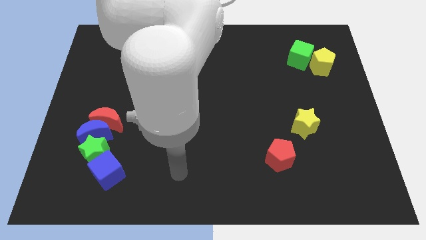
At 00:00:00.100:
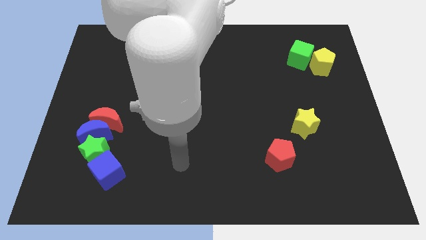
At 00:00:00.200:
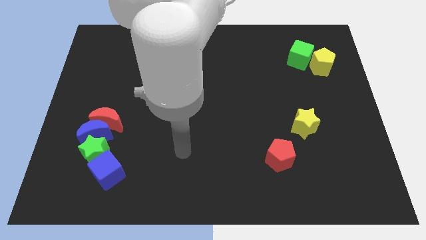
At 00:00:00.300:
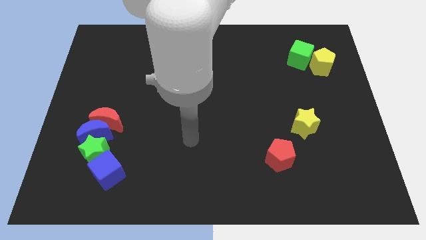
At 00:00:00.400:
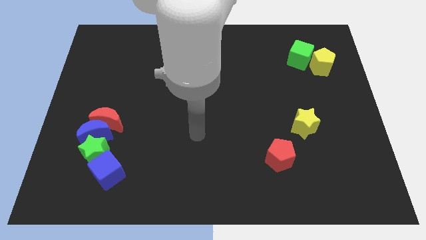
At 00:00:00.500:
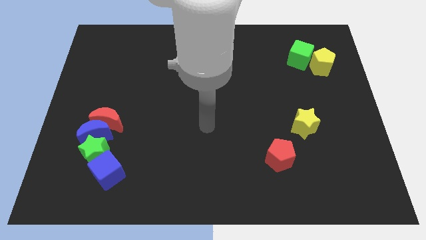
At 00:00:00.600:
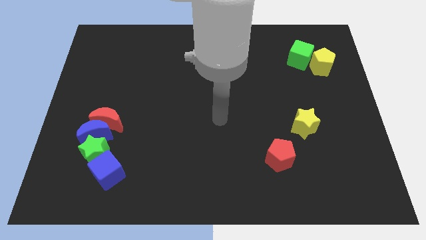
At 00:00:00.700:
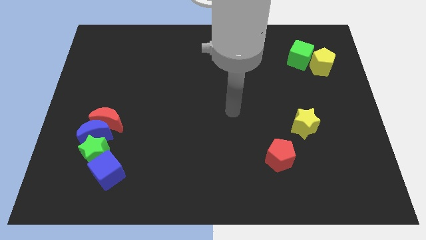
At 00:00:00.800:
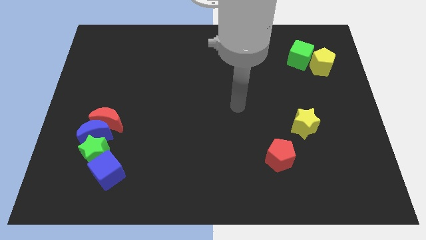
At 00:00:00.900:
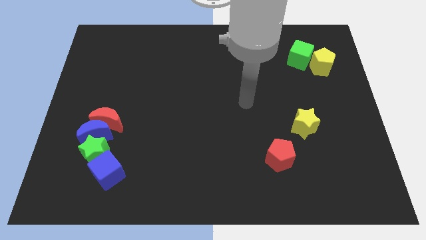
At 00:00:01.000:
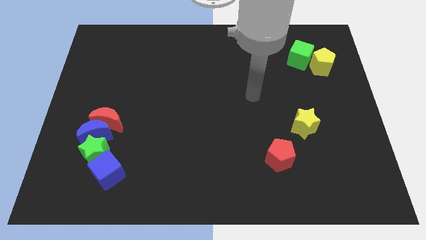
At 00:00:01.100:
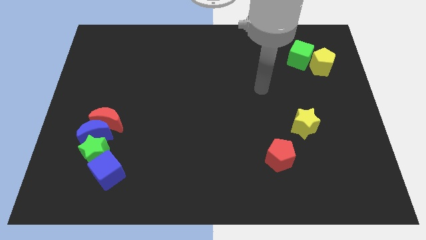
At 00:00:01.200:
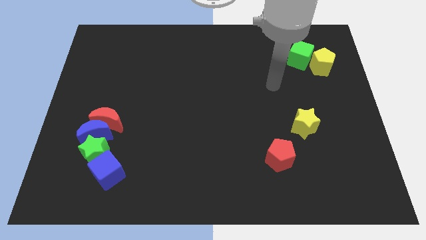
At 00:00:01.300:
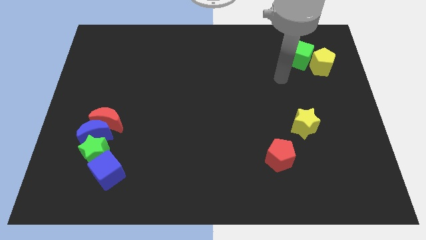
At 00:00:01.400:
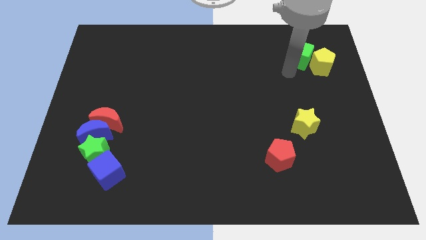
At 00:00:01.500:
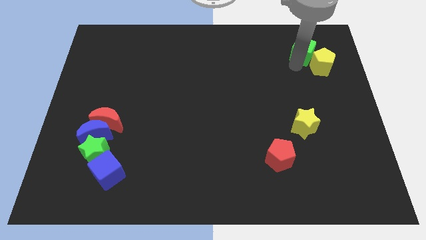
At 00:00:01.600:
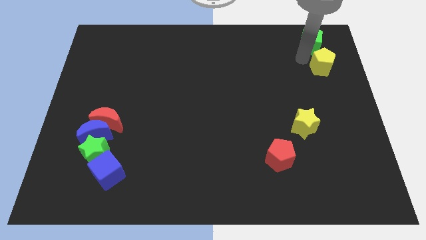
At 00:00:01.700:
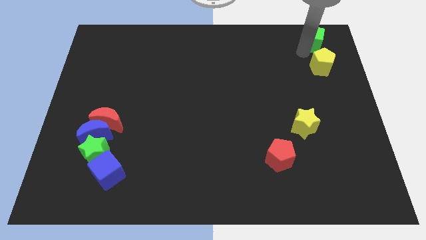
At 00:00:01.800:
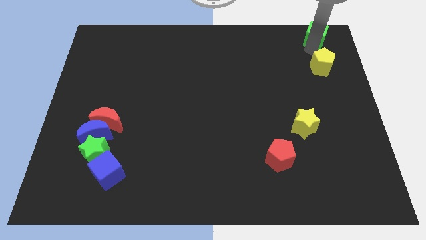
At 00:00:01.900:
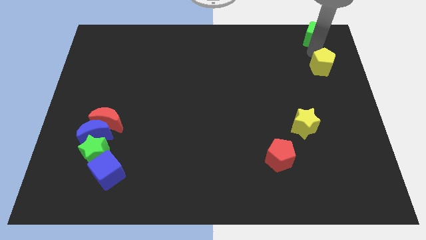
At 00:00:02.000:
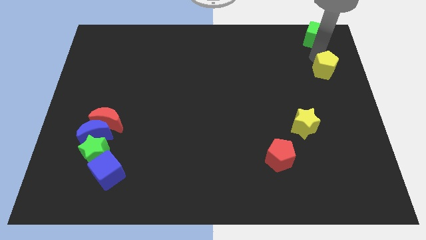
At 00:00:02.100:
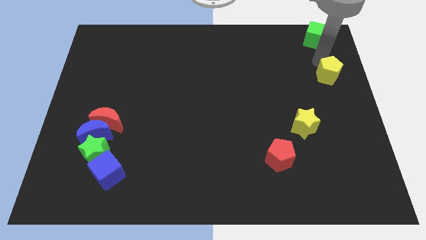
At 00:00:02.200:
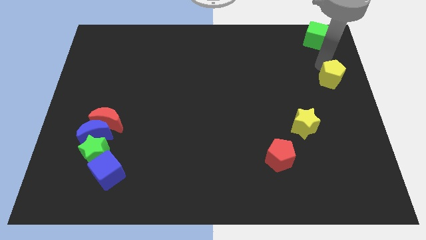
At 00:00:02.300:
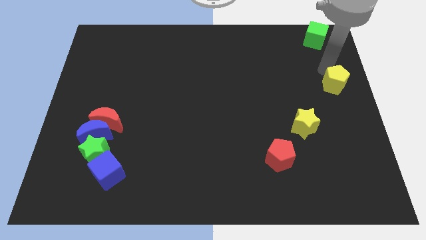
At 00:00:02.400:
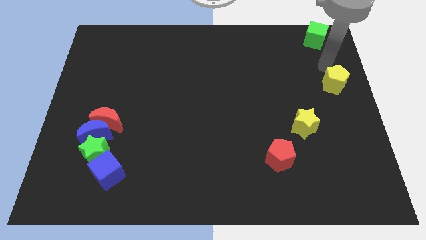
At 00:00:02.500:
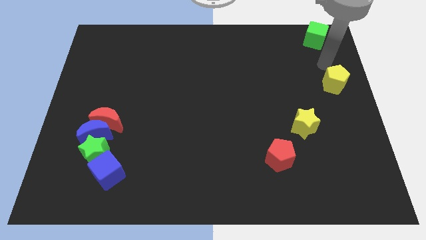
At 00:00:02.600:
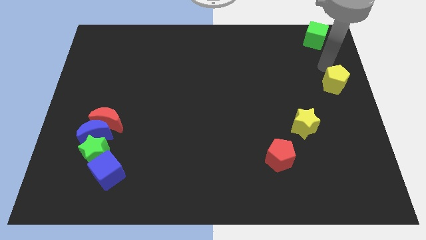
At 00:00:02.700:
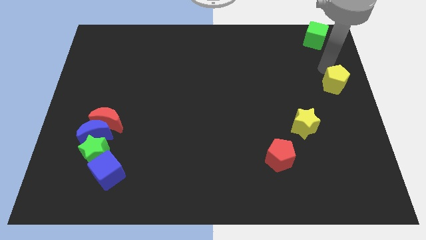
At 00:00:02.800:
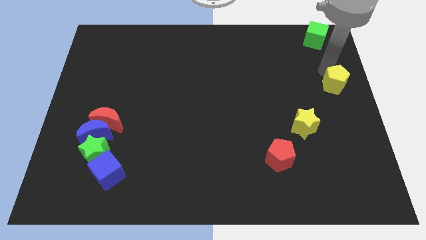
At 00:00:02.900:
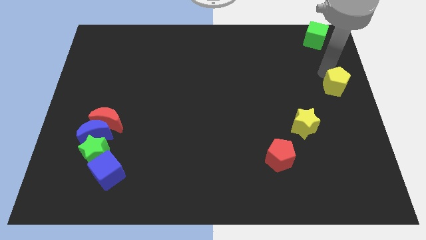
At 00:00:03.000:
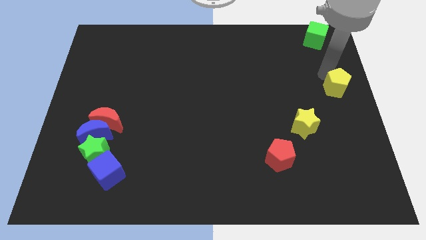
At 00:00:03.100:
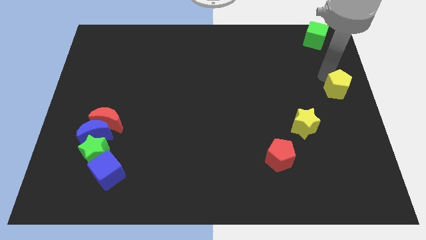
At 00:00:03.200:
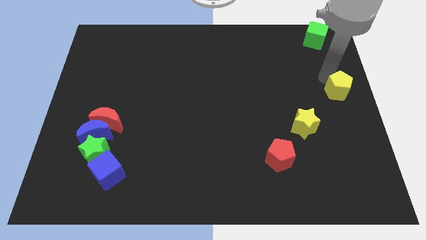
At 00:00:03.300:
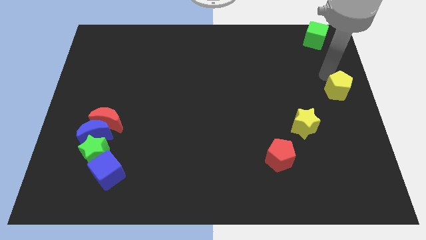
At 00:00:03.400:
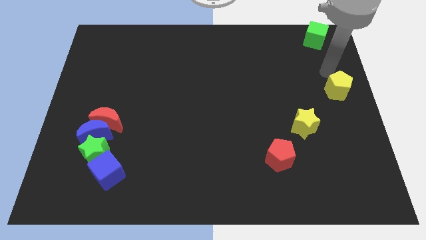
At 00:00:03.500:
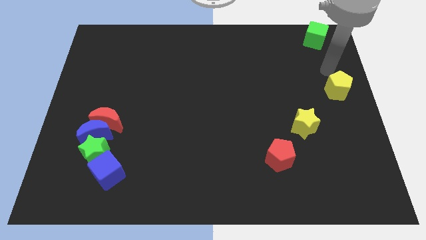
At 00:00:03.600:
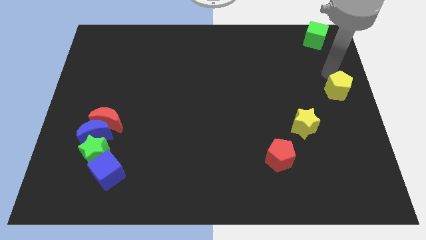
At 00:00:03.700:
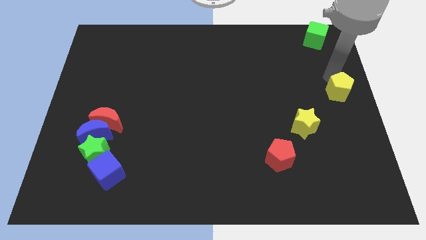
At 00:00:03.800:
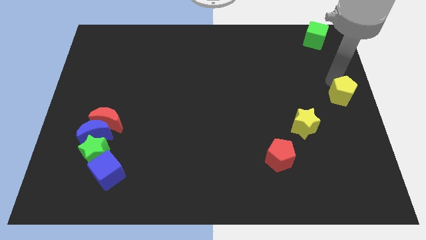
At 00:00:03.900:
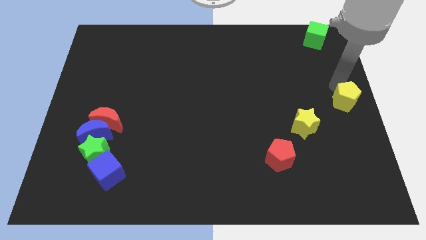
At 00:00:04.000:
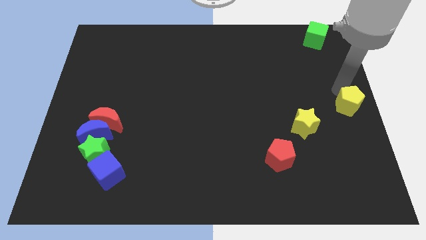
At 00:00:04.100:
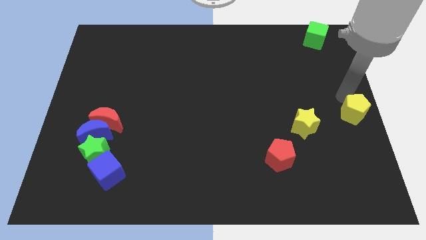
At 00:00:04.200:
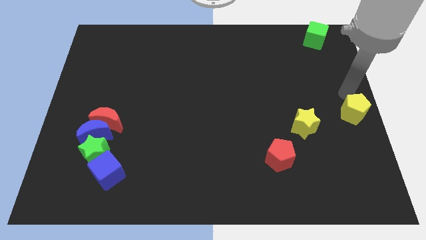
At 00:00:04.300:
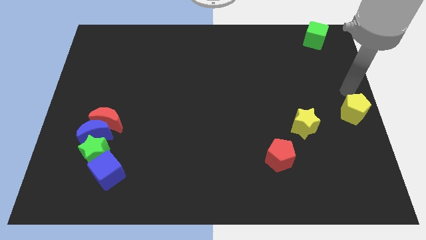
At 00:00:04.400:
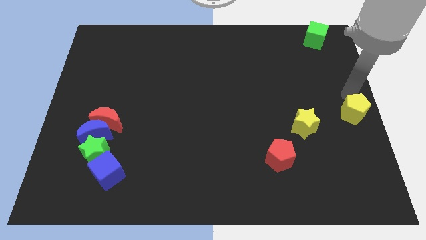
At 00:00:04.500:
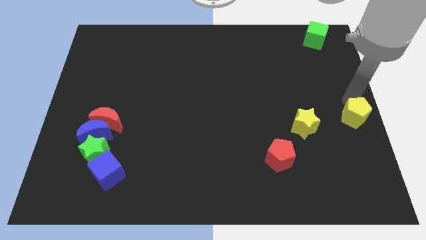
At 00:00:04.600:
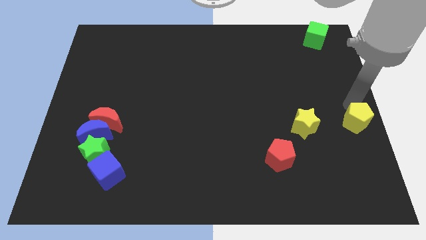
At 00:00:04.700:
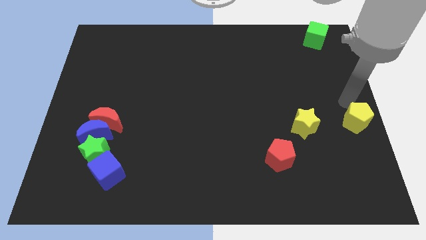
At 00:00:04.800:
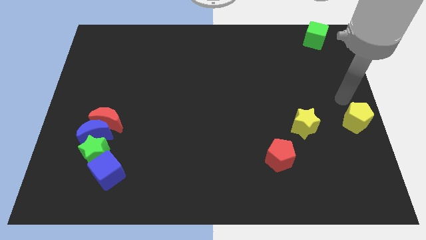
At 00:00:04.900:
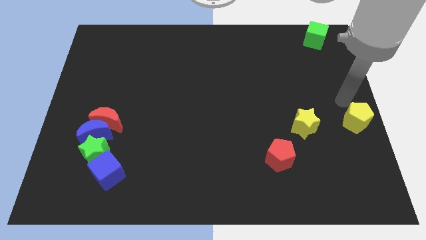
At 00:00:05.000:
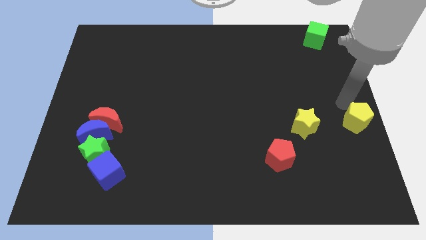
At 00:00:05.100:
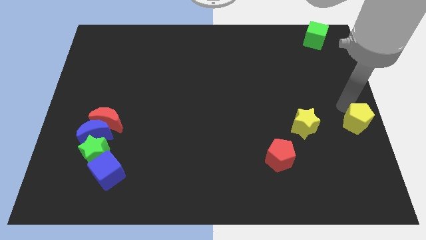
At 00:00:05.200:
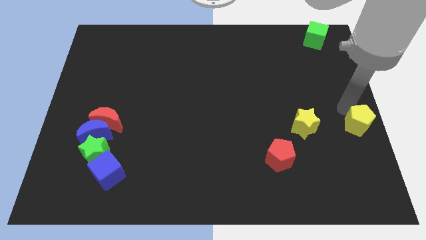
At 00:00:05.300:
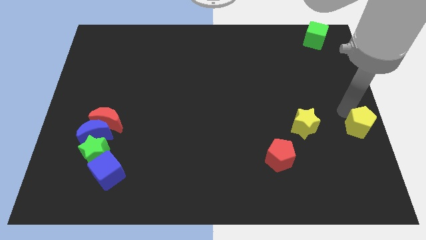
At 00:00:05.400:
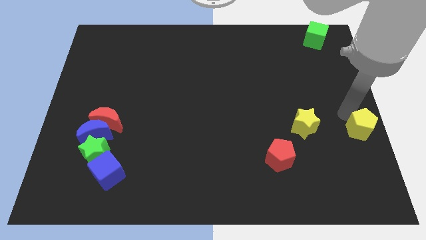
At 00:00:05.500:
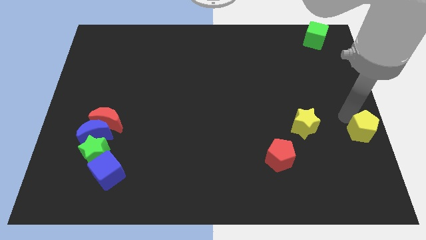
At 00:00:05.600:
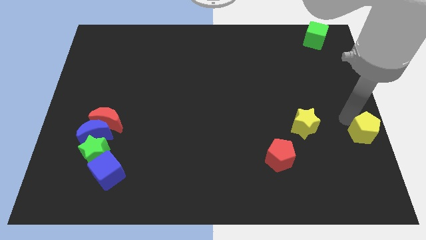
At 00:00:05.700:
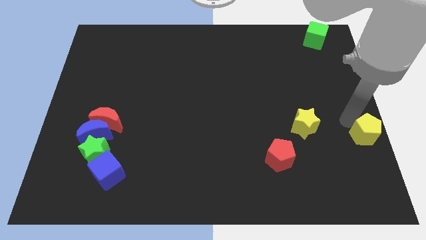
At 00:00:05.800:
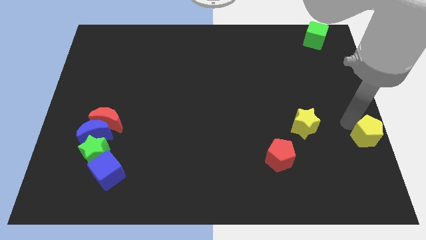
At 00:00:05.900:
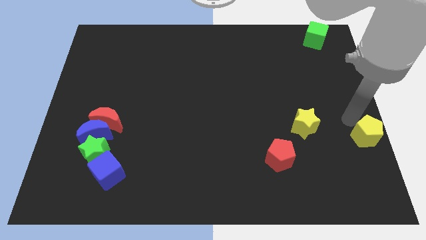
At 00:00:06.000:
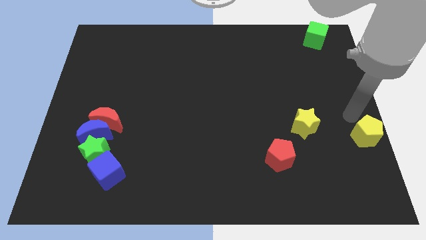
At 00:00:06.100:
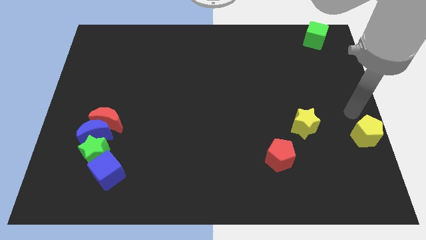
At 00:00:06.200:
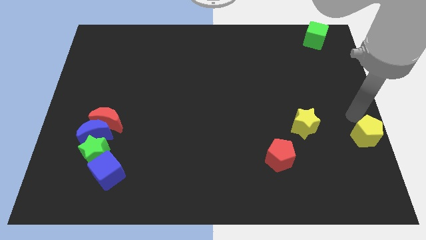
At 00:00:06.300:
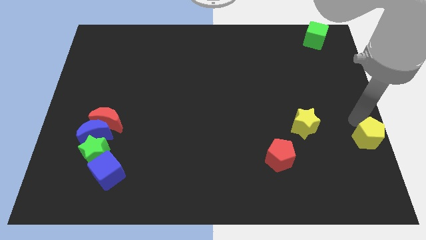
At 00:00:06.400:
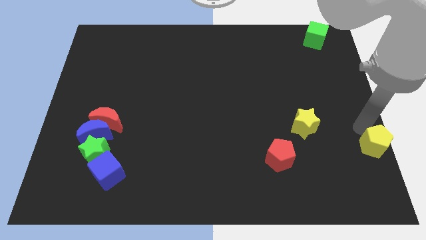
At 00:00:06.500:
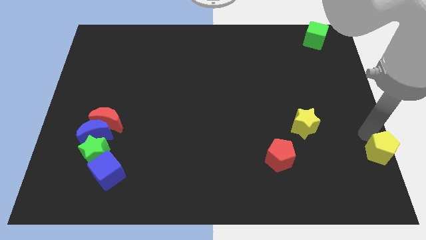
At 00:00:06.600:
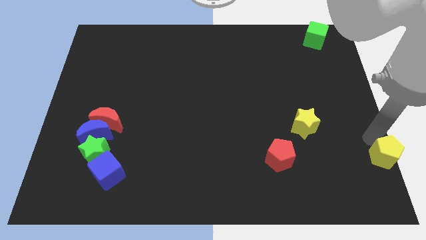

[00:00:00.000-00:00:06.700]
push the yellow pentagon to the bottom right corner

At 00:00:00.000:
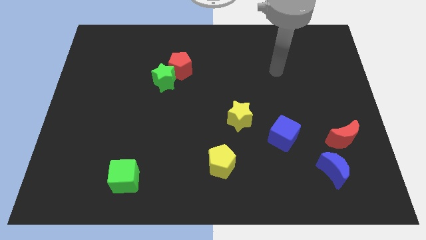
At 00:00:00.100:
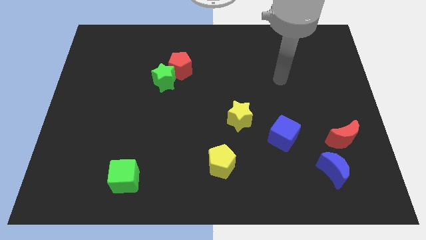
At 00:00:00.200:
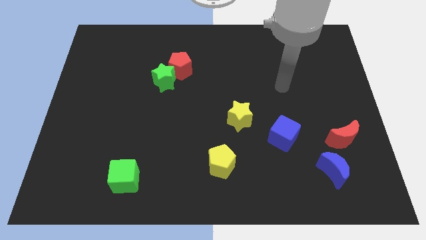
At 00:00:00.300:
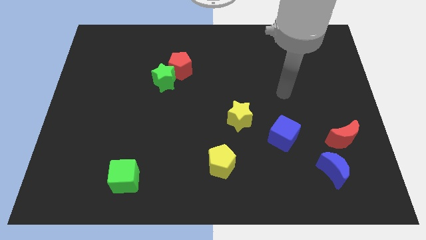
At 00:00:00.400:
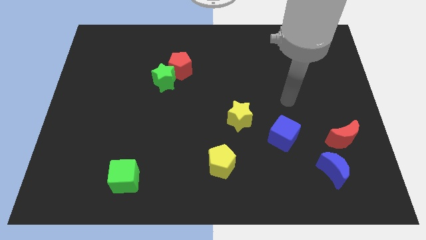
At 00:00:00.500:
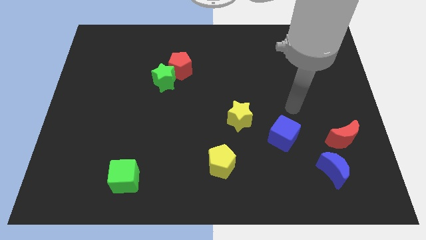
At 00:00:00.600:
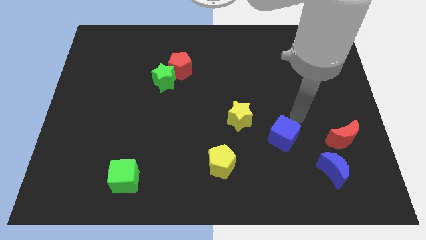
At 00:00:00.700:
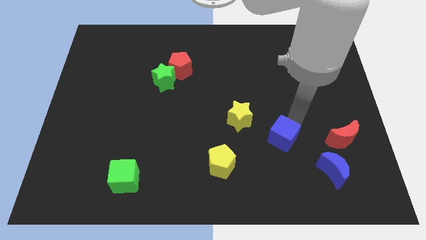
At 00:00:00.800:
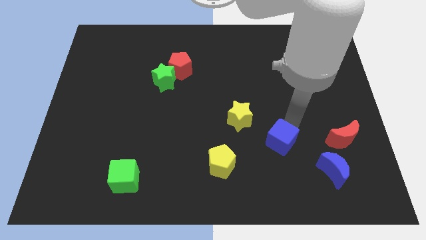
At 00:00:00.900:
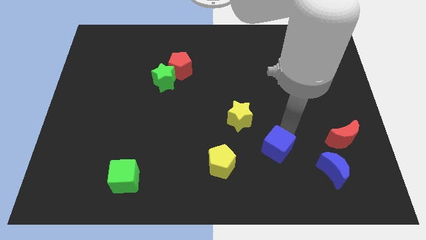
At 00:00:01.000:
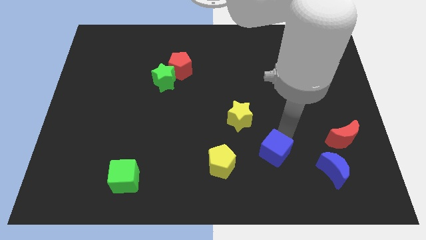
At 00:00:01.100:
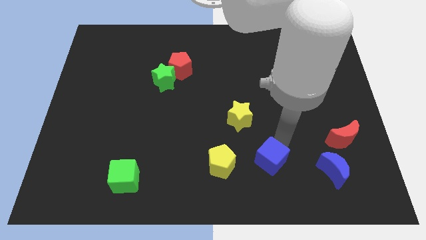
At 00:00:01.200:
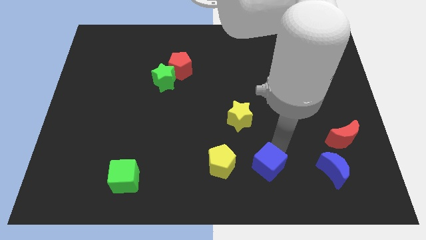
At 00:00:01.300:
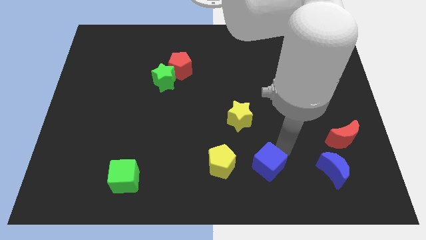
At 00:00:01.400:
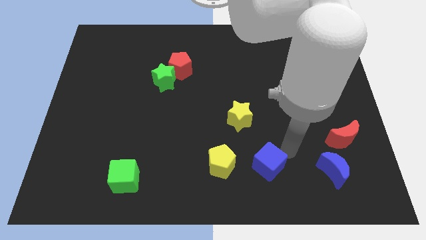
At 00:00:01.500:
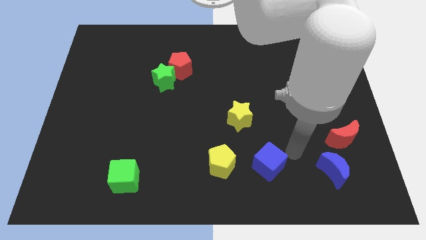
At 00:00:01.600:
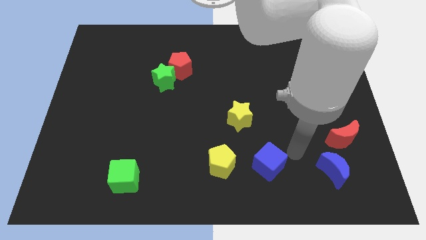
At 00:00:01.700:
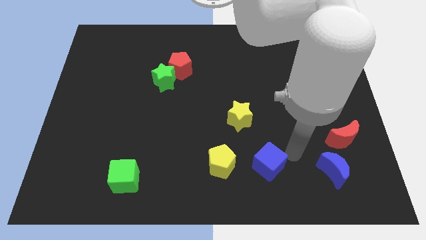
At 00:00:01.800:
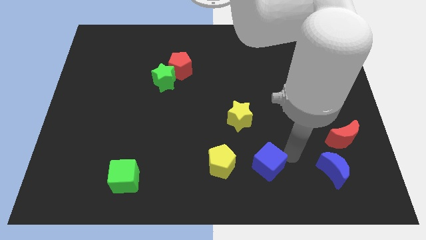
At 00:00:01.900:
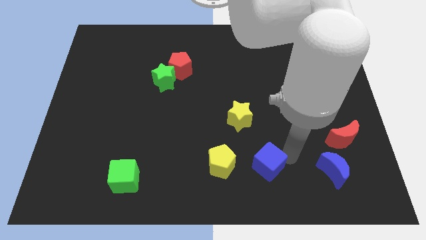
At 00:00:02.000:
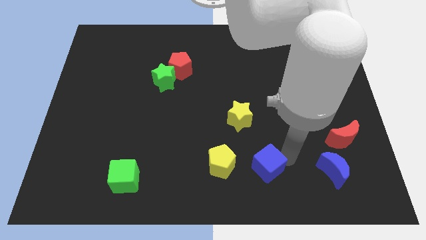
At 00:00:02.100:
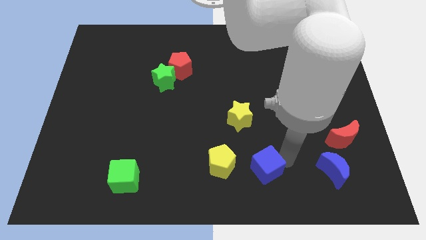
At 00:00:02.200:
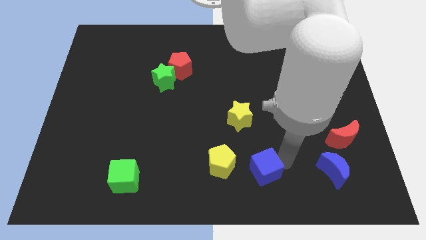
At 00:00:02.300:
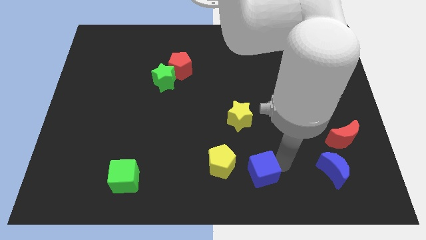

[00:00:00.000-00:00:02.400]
put the blue cube to the bottom
